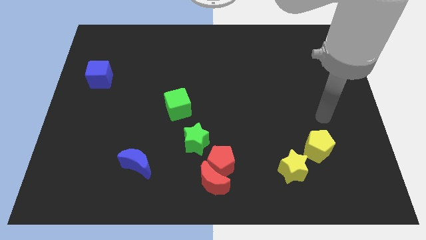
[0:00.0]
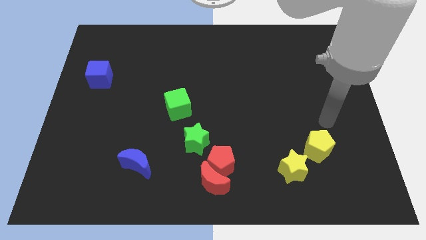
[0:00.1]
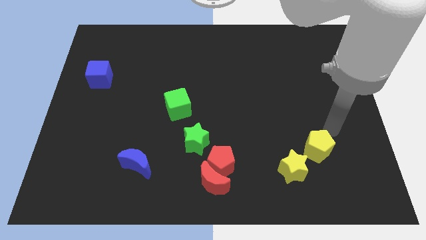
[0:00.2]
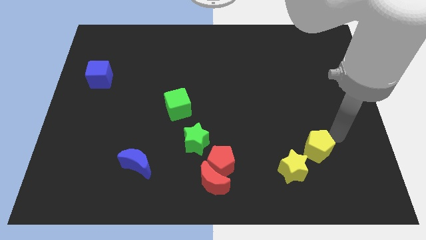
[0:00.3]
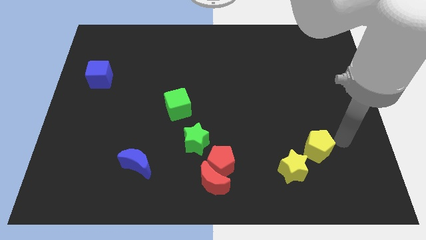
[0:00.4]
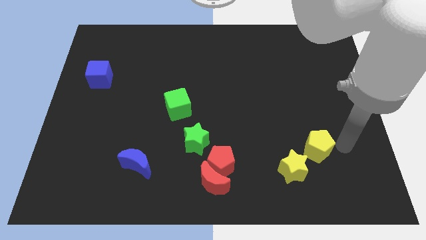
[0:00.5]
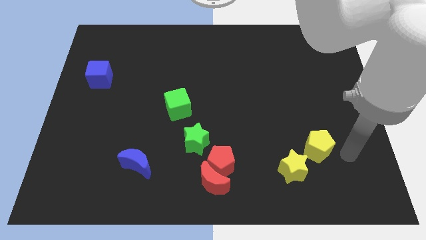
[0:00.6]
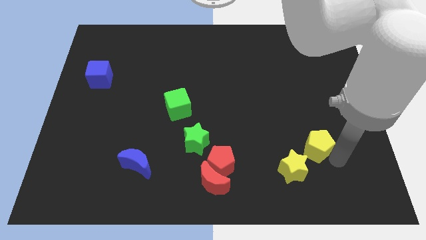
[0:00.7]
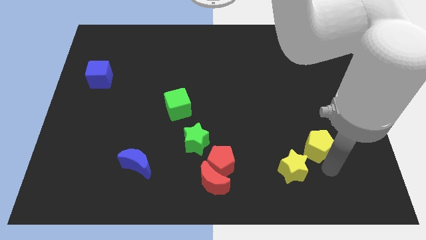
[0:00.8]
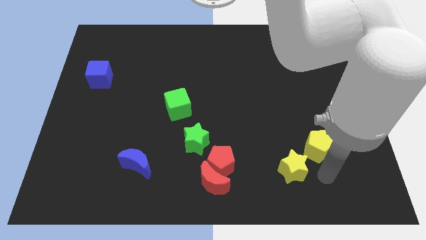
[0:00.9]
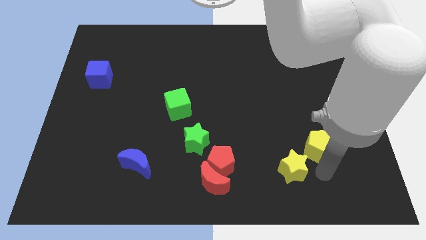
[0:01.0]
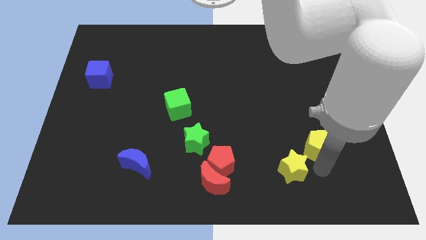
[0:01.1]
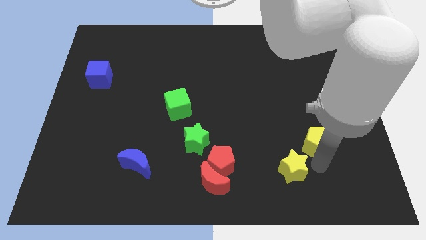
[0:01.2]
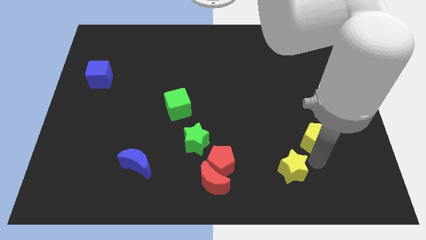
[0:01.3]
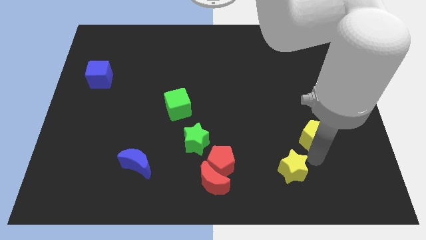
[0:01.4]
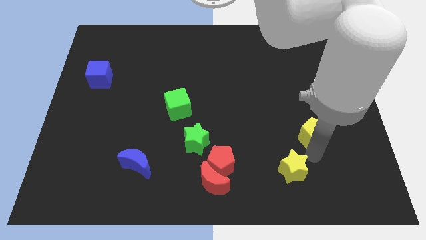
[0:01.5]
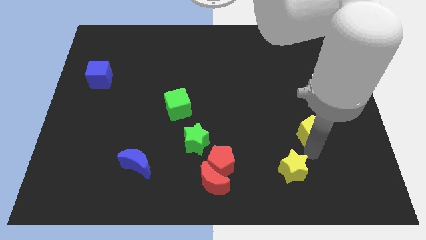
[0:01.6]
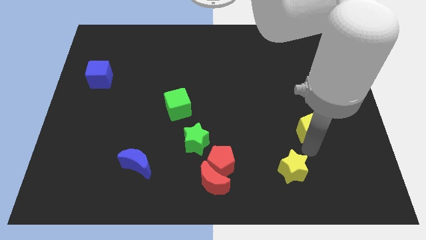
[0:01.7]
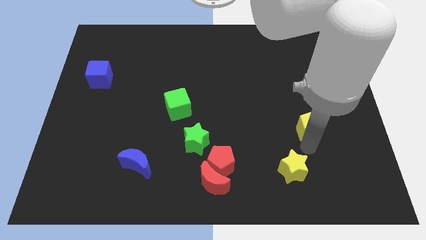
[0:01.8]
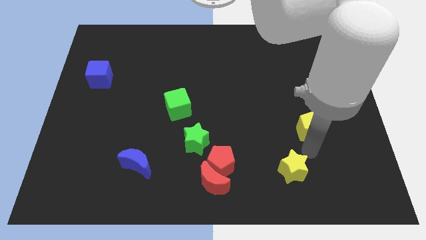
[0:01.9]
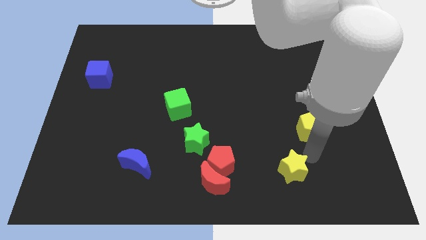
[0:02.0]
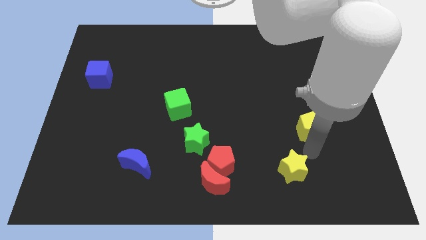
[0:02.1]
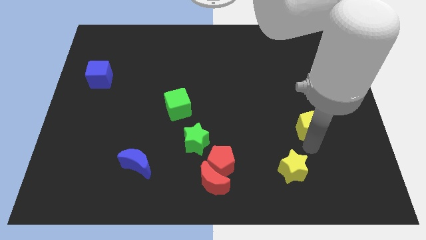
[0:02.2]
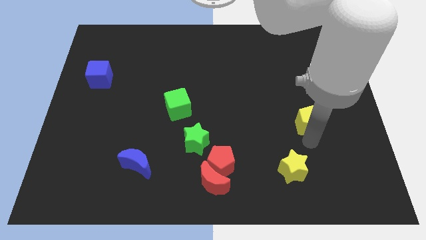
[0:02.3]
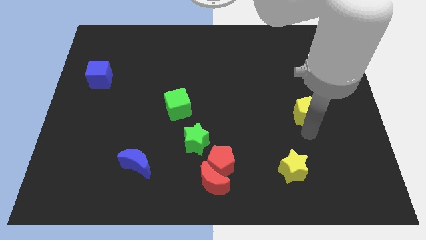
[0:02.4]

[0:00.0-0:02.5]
move the yellow pentagon upwards somewhat

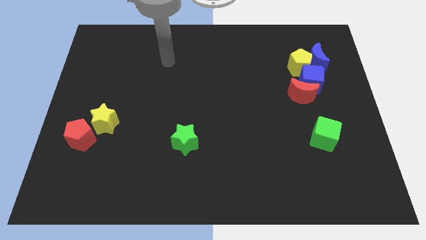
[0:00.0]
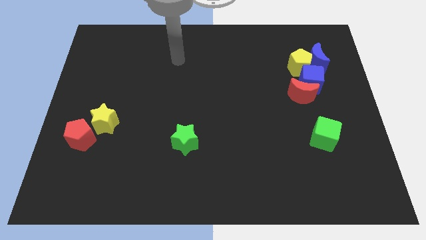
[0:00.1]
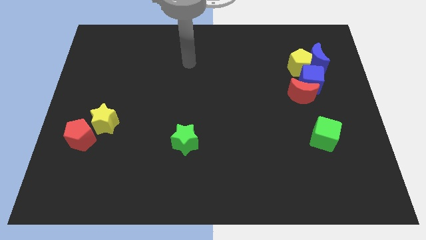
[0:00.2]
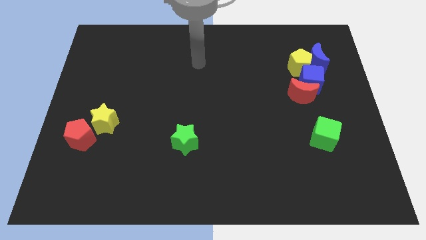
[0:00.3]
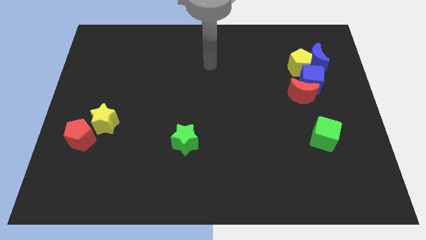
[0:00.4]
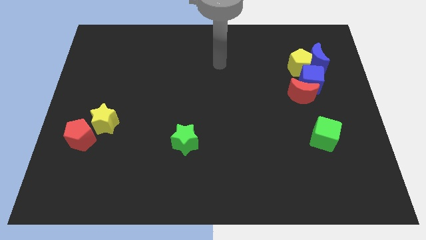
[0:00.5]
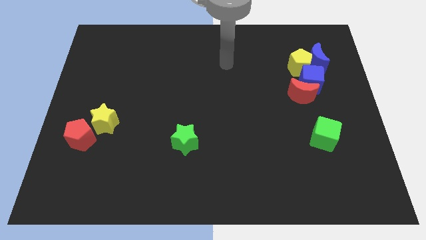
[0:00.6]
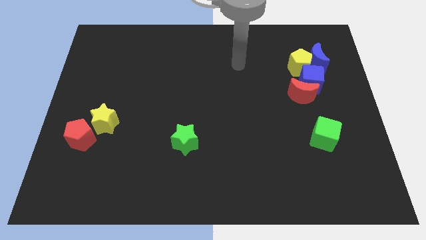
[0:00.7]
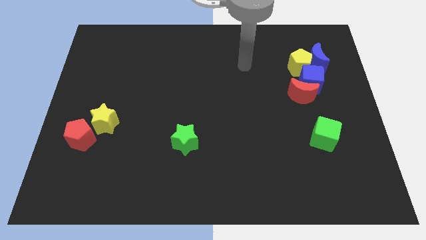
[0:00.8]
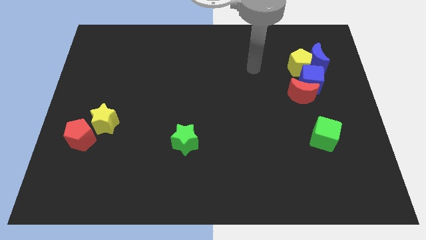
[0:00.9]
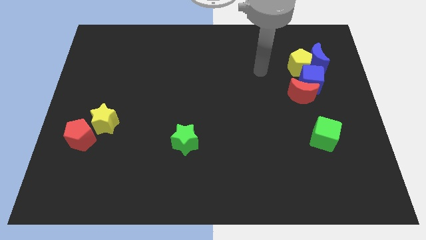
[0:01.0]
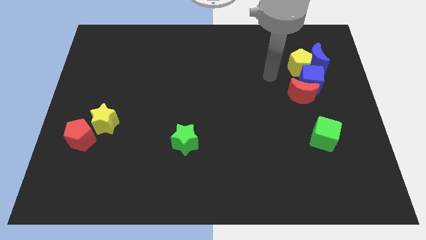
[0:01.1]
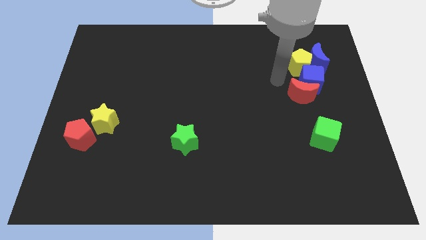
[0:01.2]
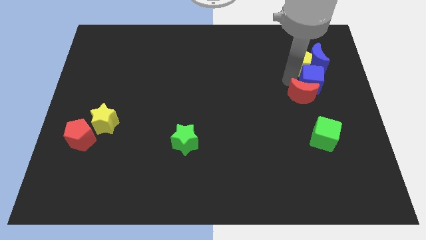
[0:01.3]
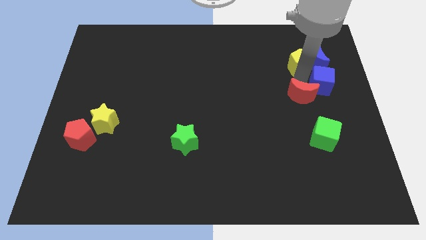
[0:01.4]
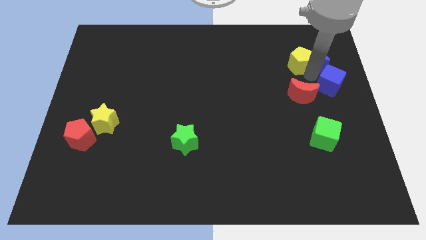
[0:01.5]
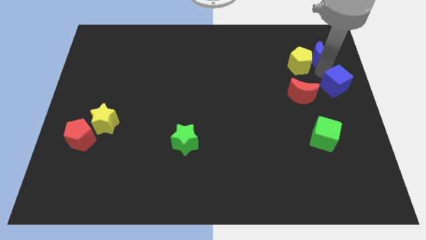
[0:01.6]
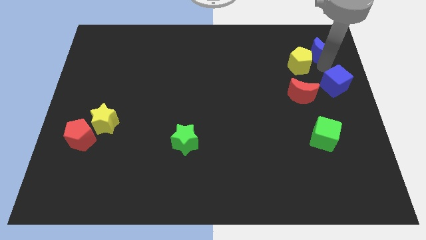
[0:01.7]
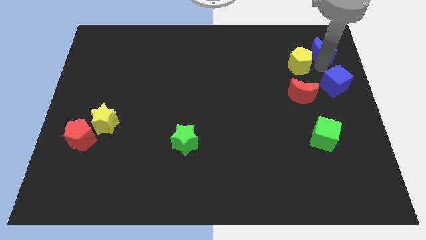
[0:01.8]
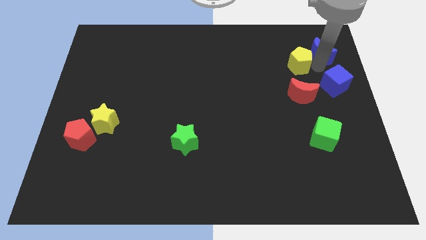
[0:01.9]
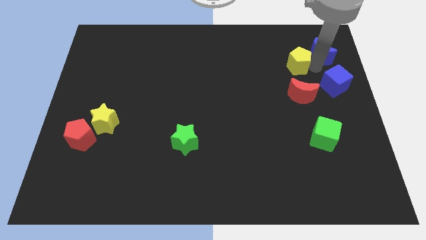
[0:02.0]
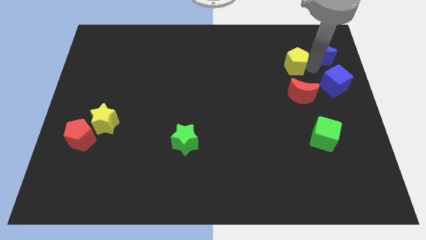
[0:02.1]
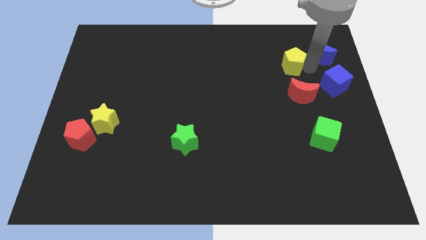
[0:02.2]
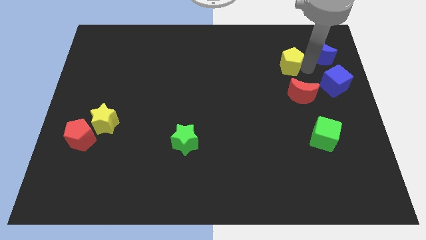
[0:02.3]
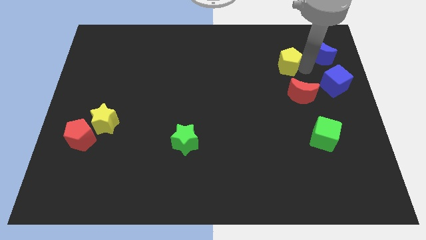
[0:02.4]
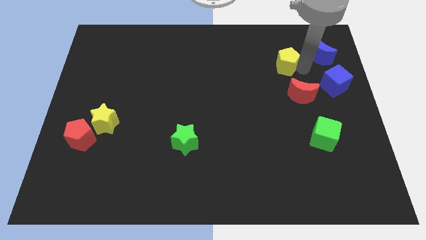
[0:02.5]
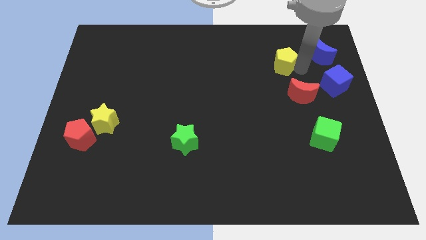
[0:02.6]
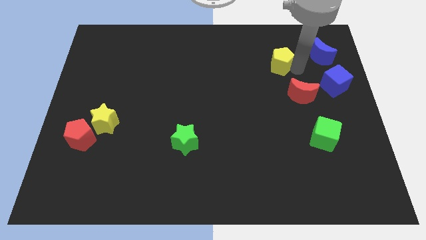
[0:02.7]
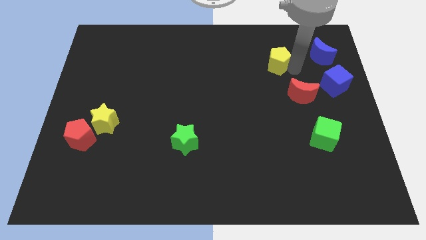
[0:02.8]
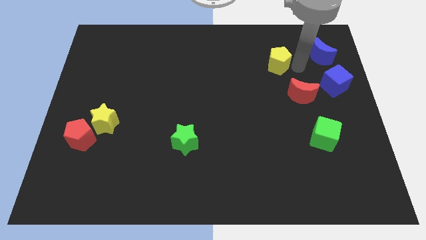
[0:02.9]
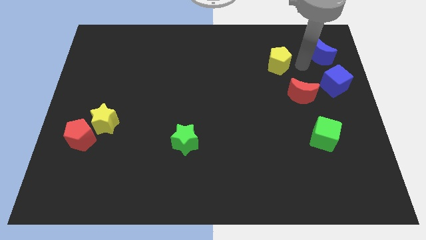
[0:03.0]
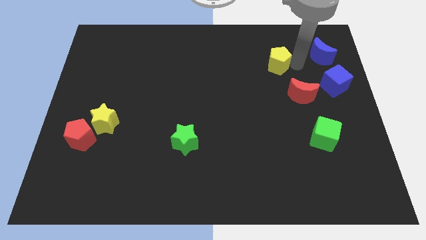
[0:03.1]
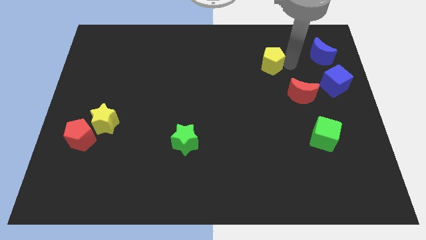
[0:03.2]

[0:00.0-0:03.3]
push the yellow pentagon left somewhat

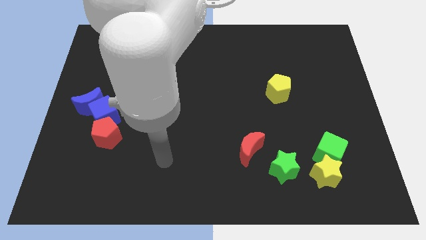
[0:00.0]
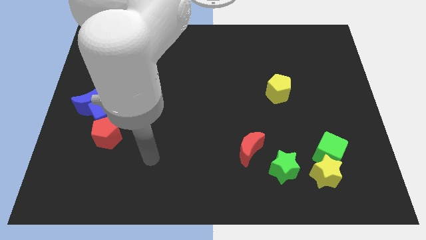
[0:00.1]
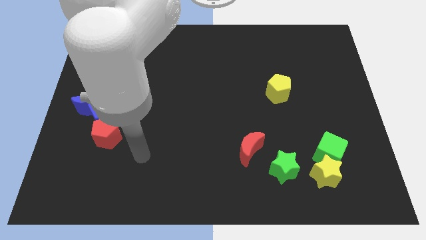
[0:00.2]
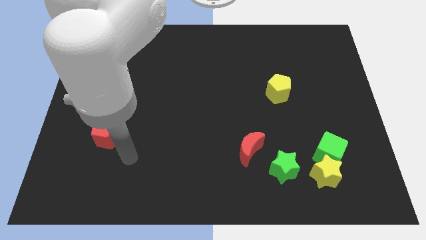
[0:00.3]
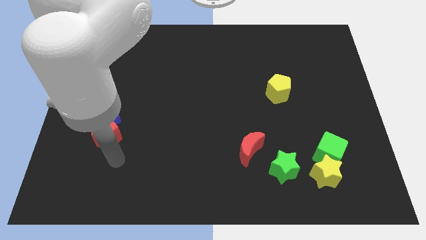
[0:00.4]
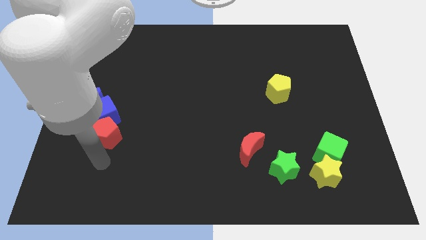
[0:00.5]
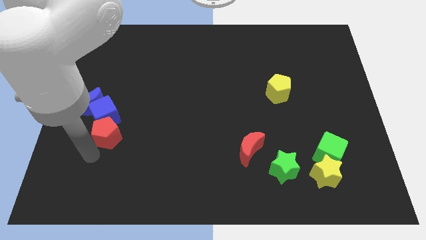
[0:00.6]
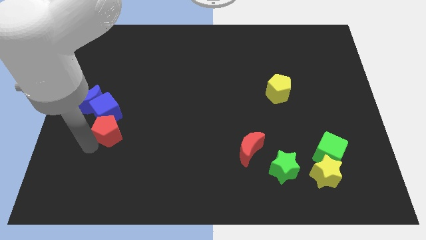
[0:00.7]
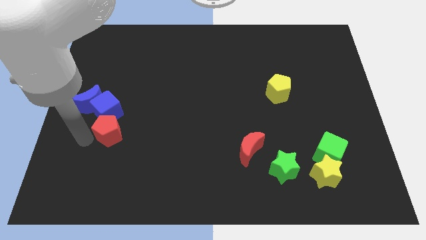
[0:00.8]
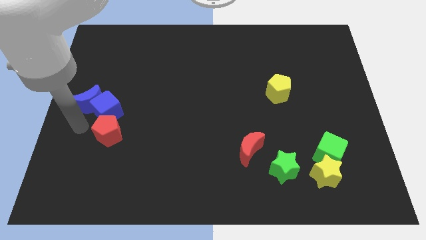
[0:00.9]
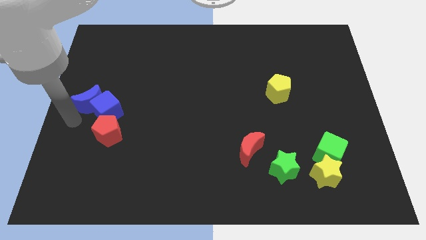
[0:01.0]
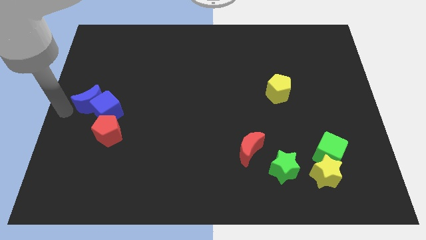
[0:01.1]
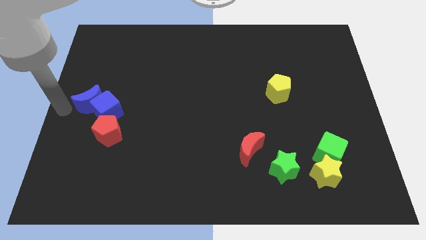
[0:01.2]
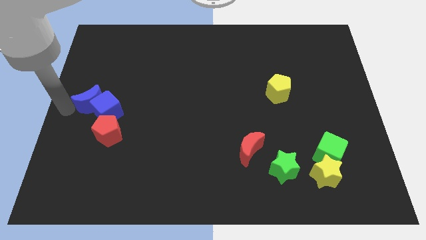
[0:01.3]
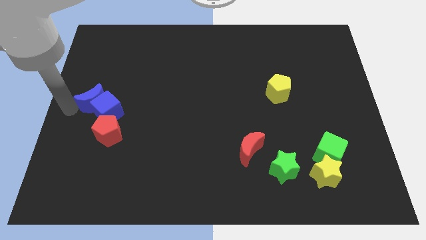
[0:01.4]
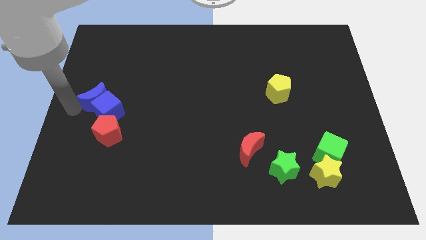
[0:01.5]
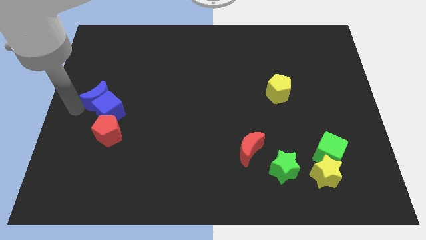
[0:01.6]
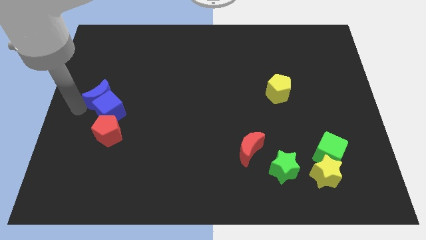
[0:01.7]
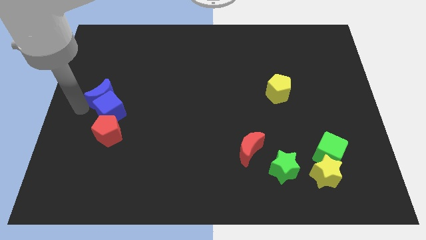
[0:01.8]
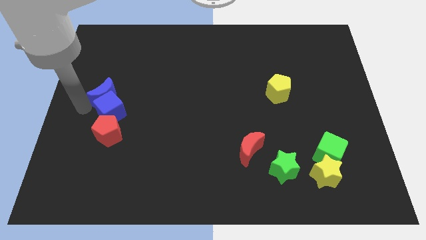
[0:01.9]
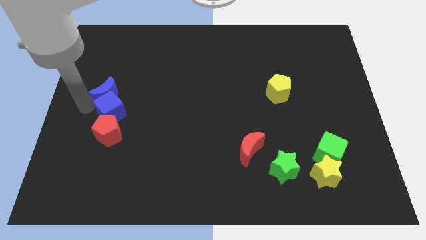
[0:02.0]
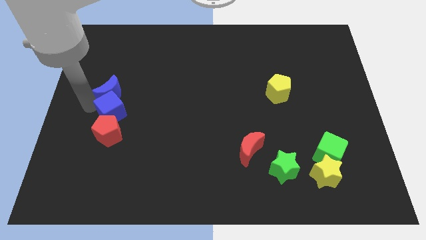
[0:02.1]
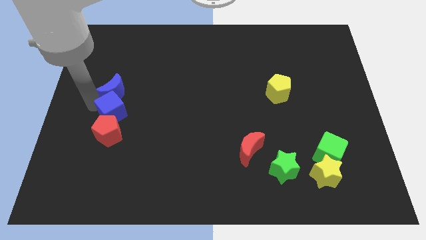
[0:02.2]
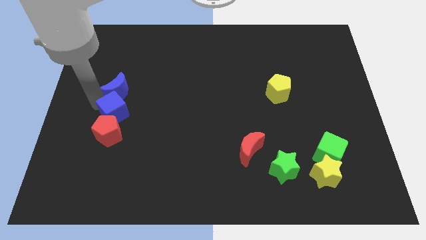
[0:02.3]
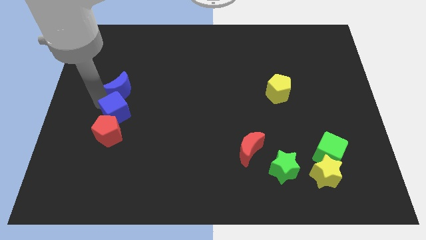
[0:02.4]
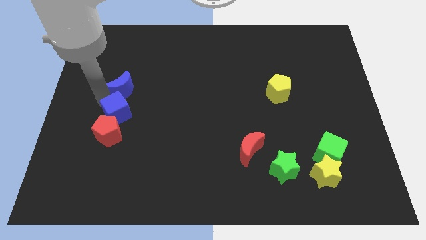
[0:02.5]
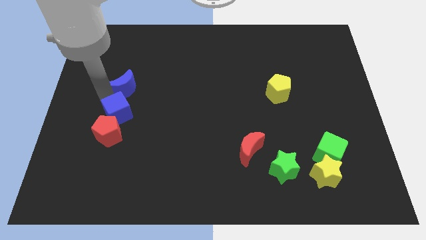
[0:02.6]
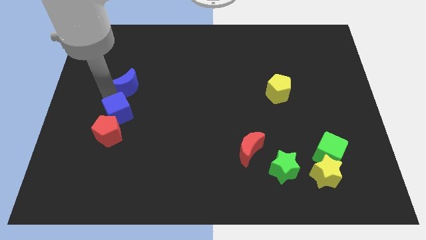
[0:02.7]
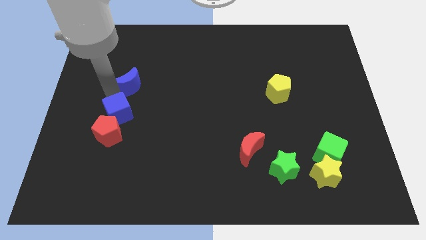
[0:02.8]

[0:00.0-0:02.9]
slightly slide the blue moon right
